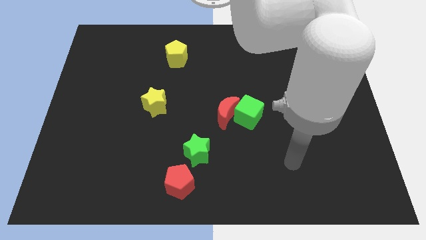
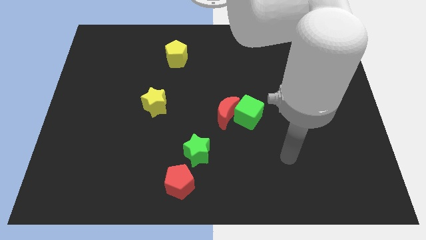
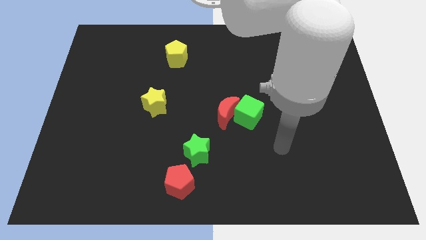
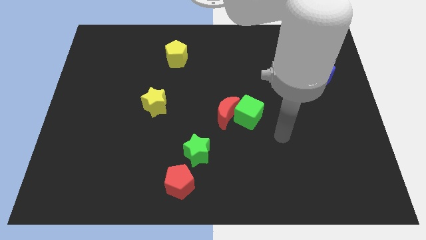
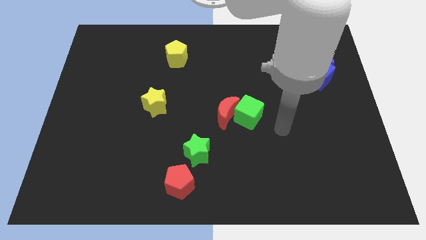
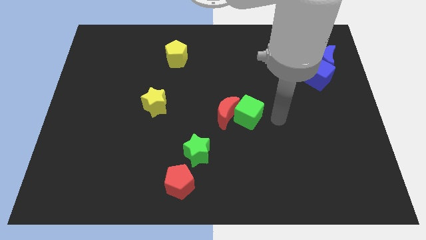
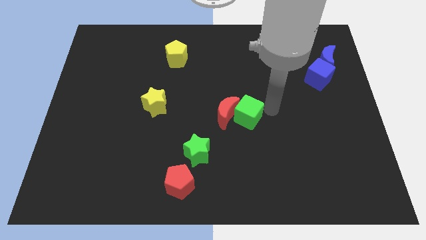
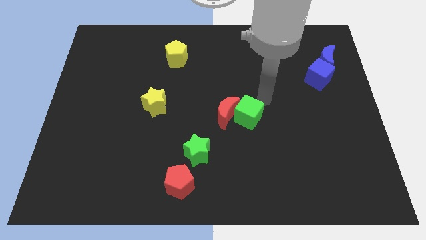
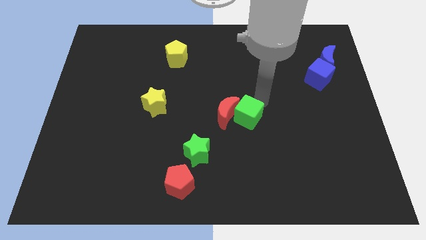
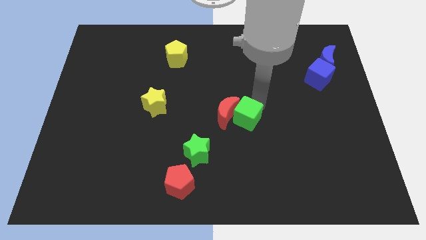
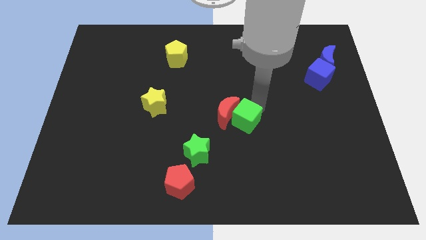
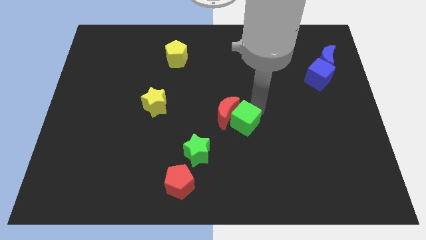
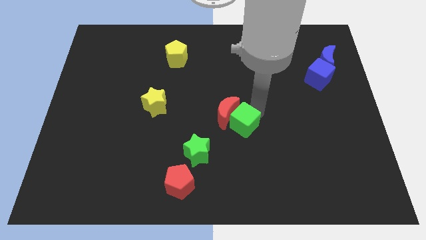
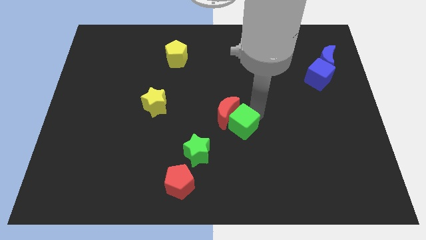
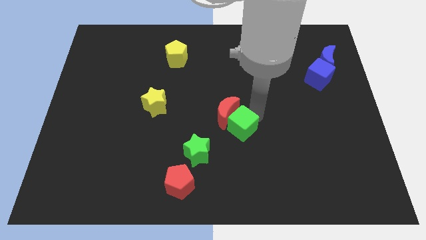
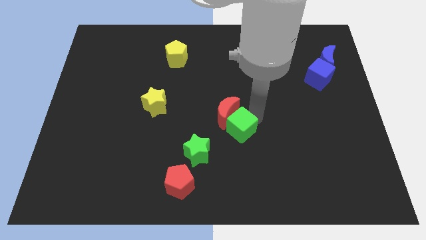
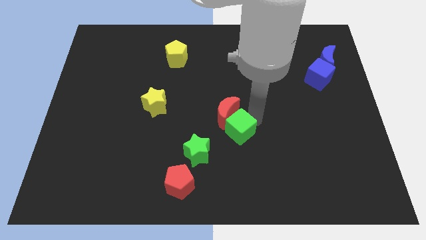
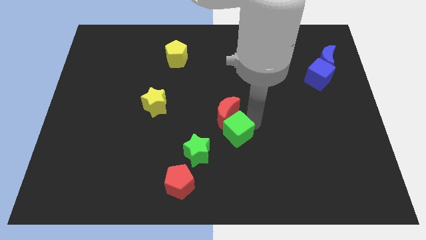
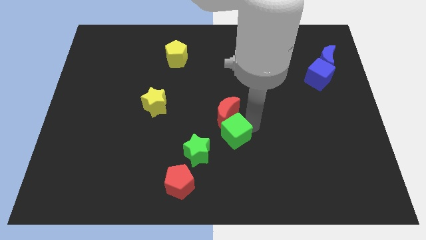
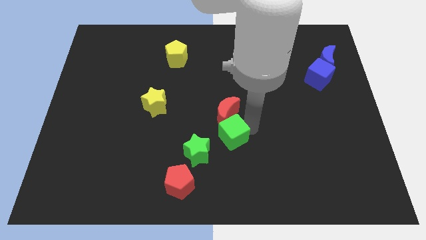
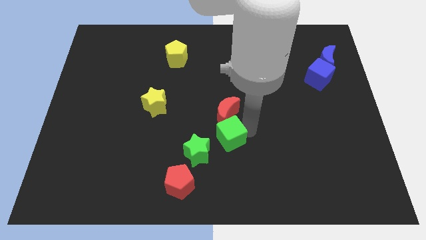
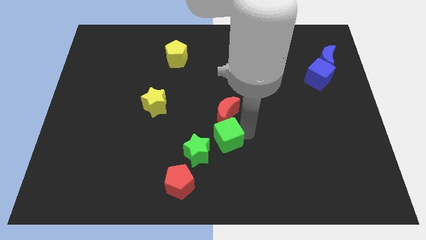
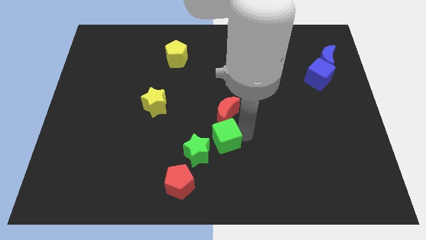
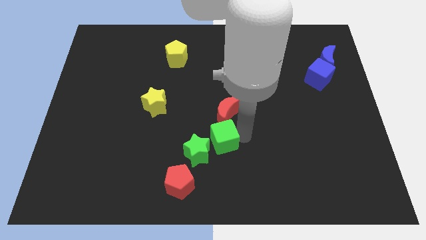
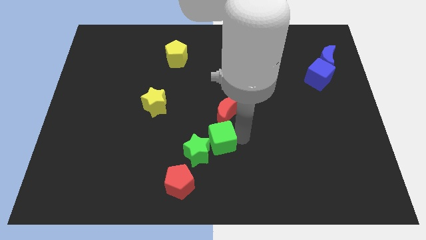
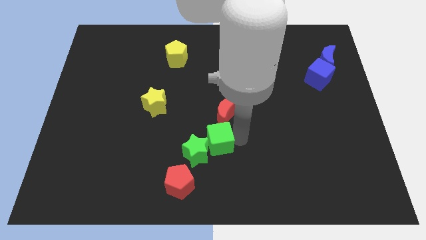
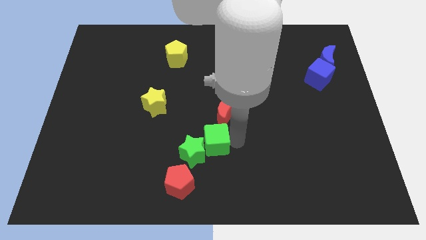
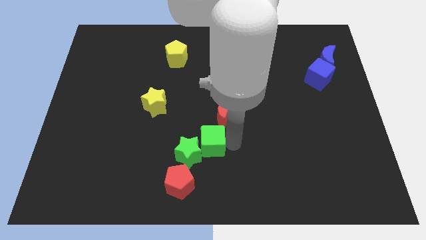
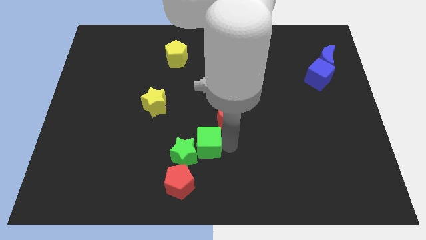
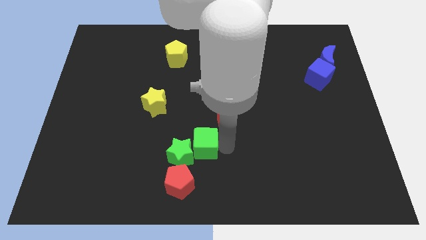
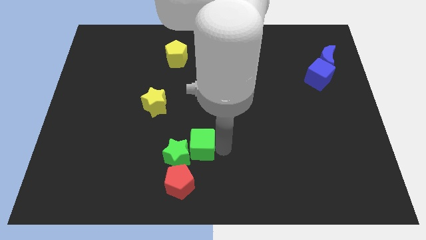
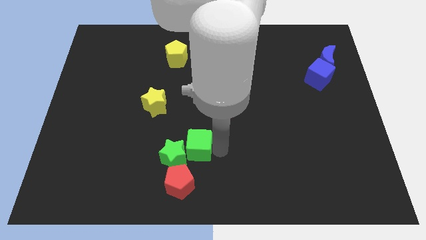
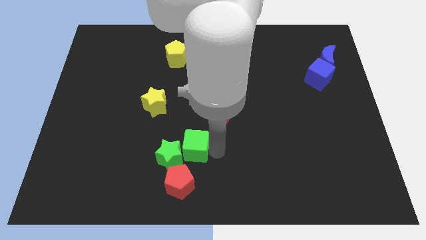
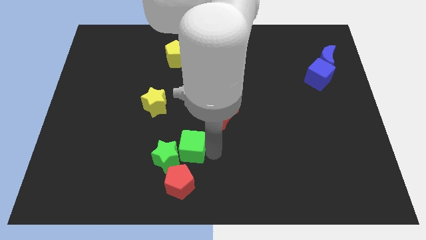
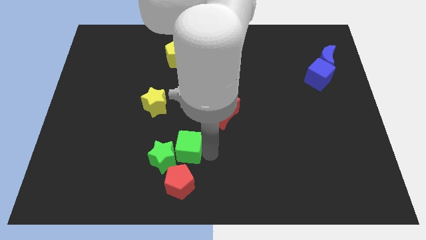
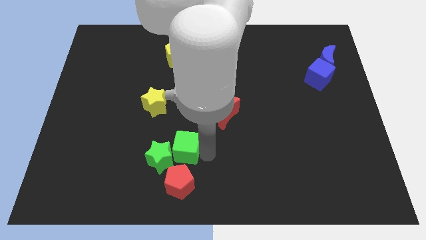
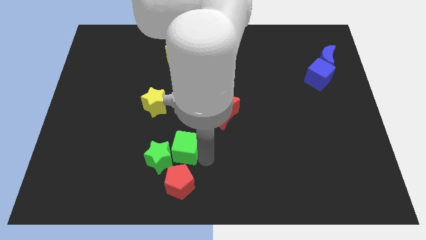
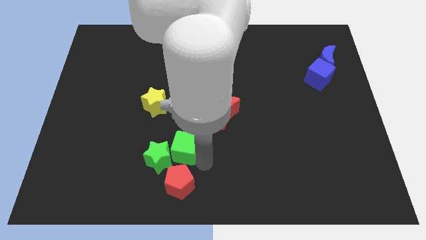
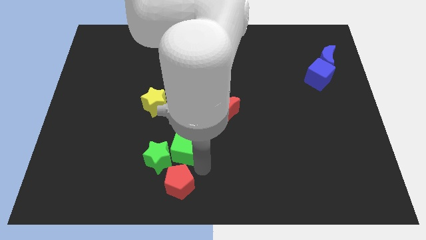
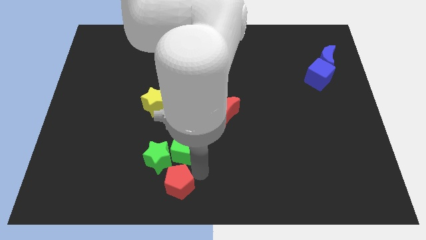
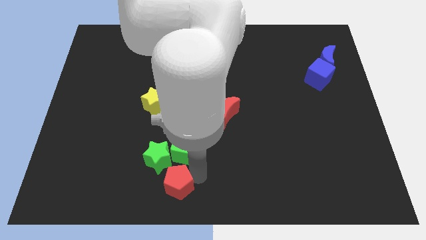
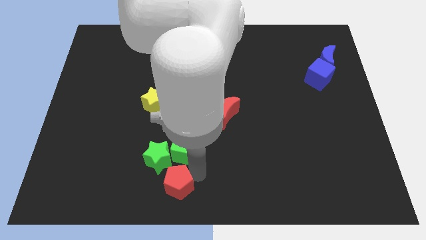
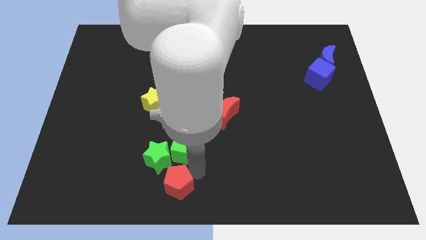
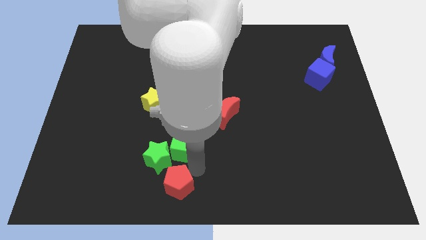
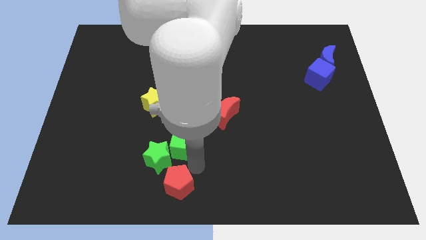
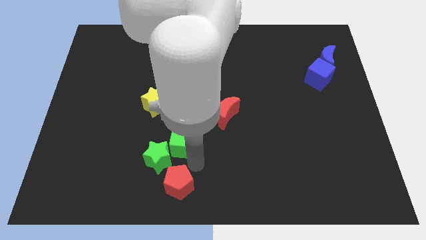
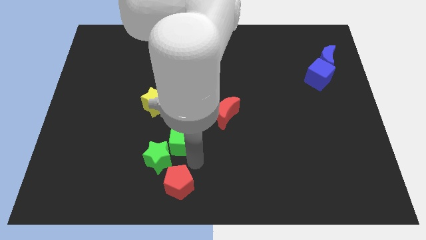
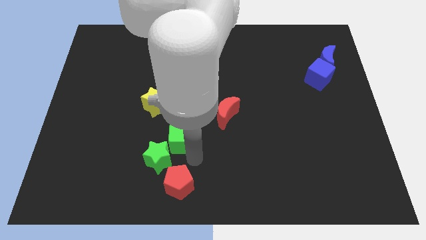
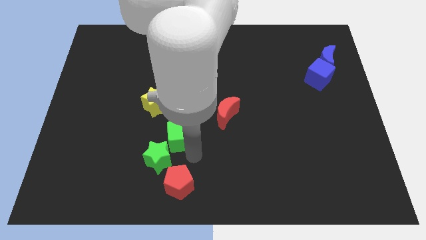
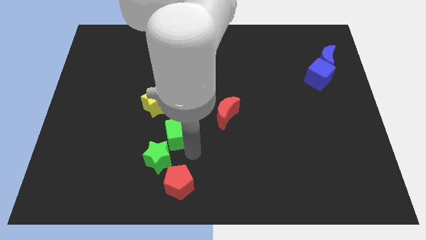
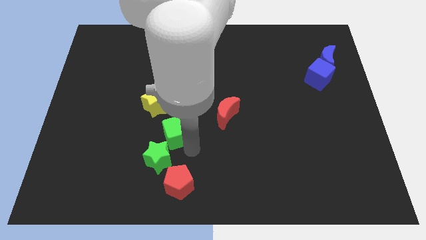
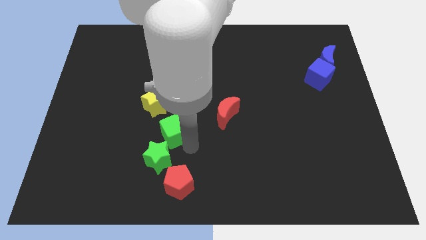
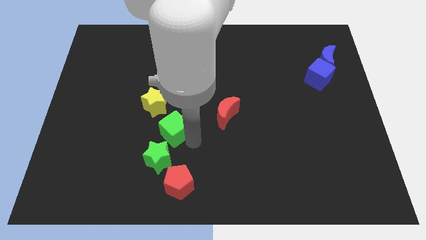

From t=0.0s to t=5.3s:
push the green cube below the yellow star

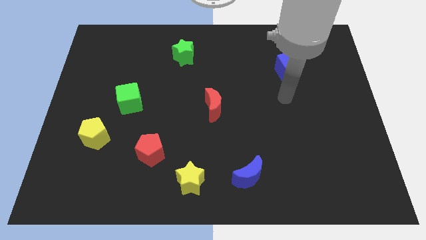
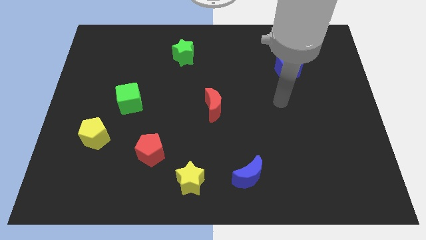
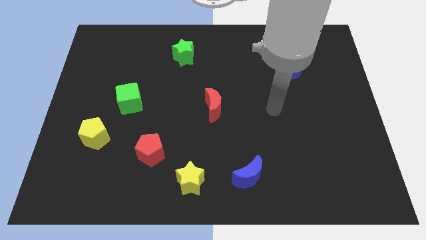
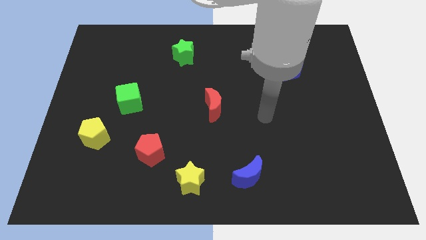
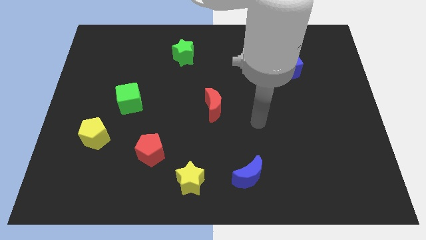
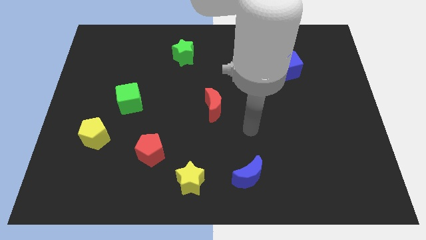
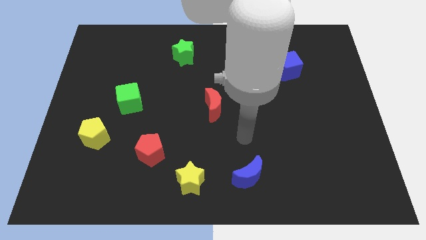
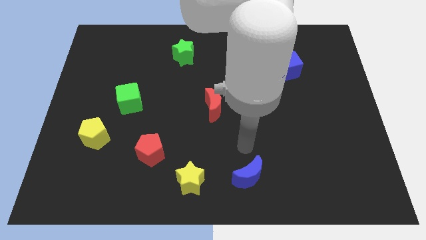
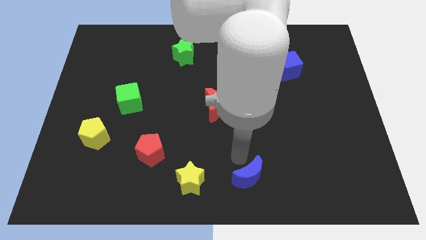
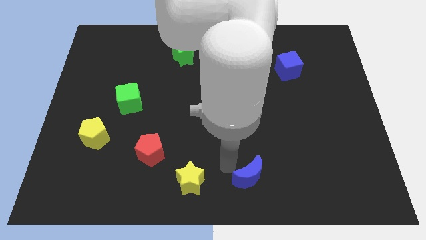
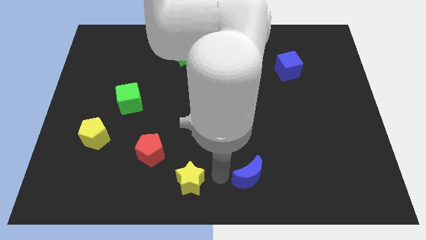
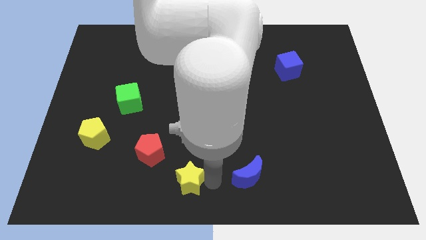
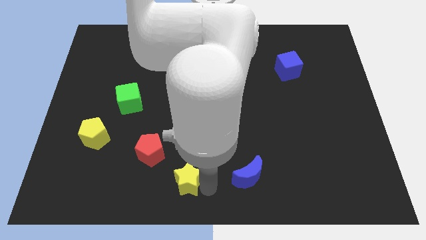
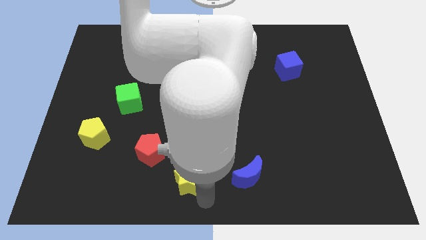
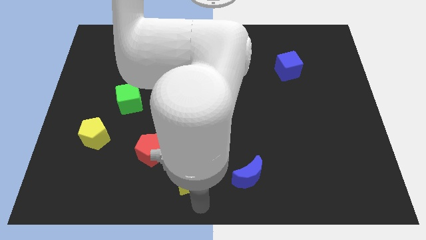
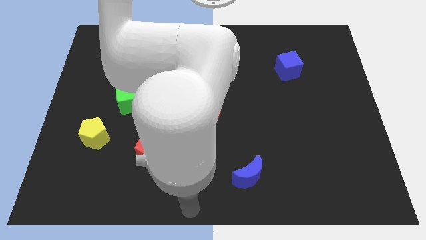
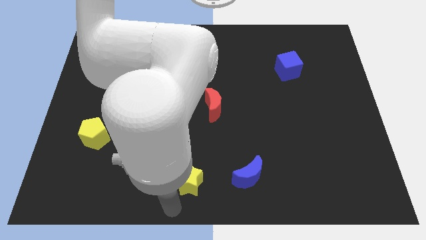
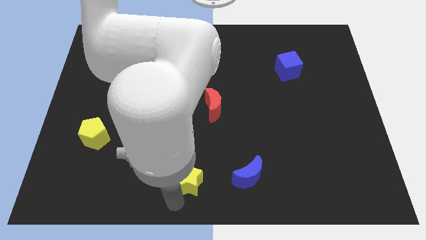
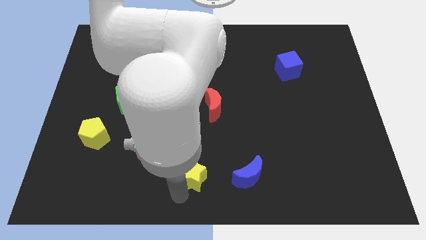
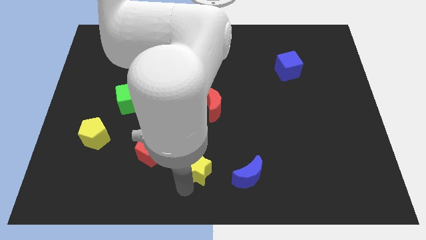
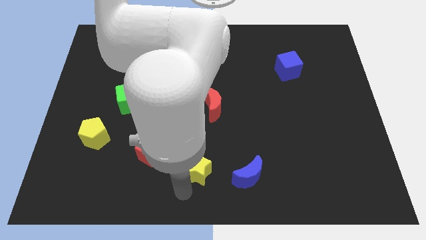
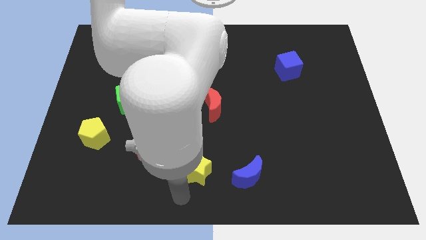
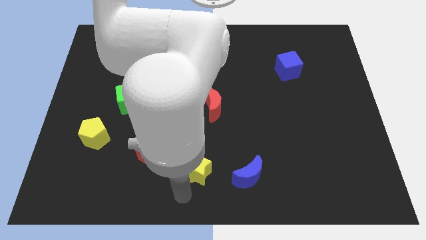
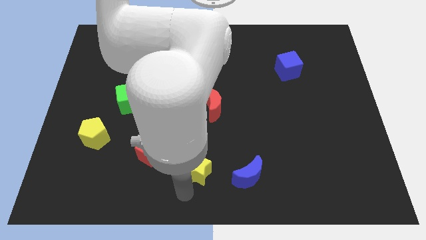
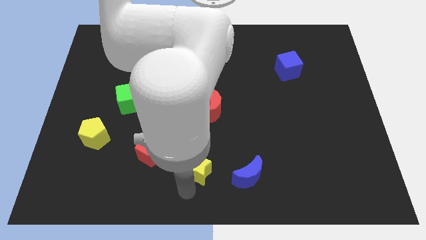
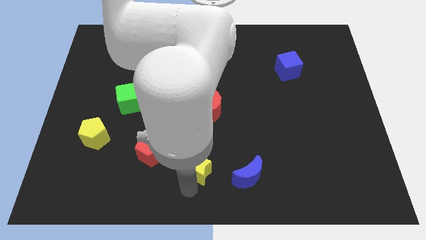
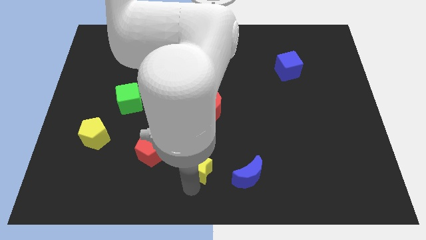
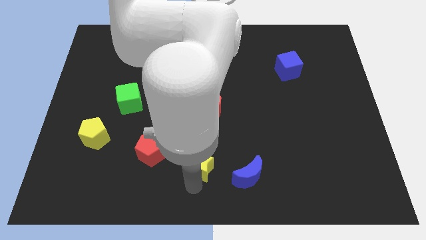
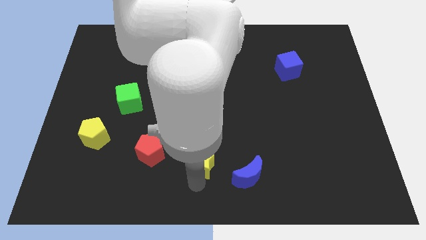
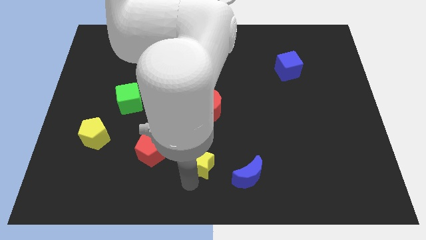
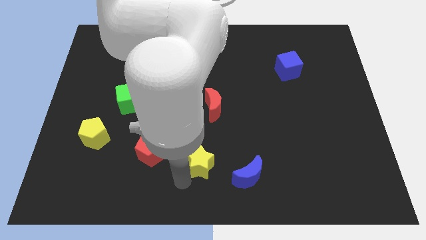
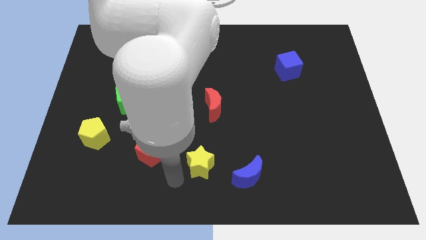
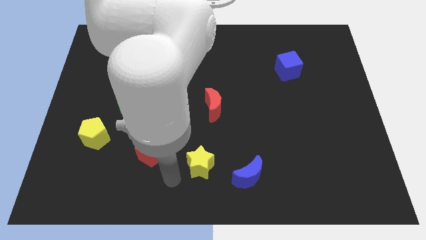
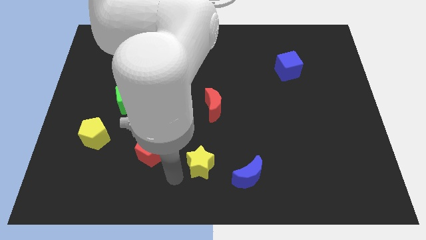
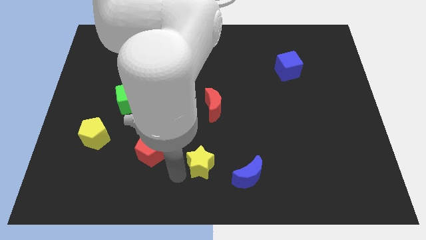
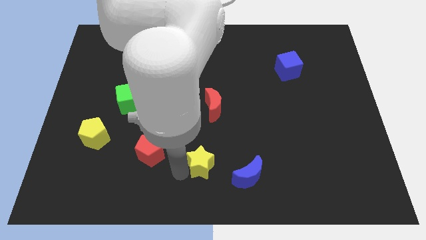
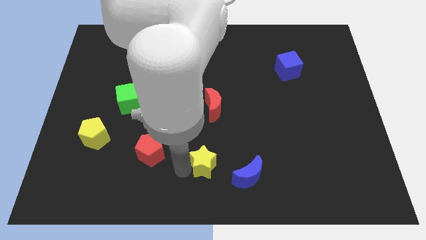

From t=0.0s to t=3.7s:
move the yellow star to the top left side of the blue moon
